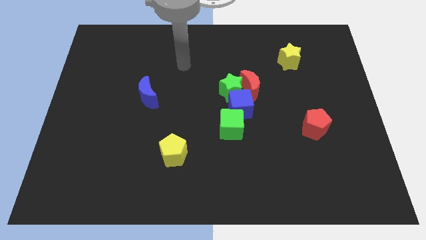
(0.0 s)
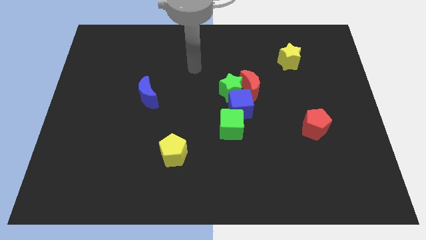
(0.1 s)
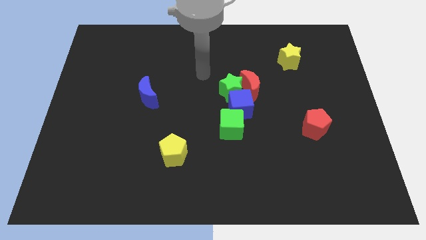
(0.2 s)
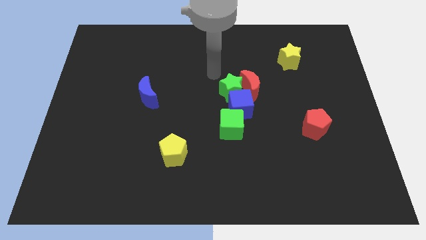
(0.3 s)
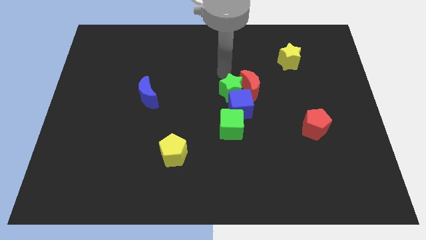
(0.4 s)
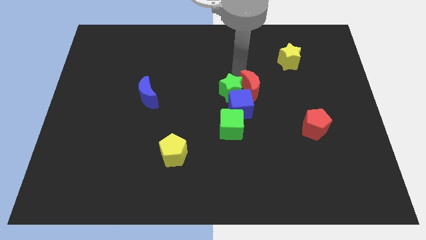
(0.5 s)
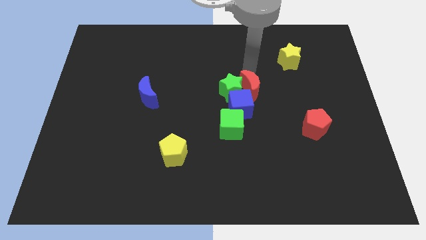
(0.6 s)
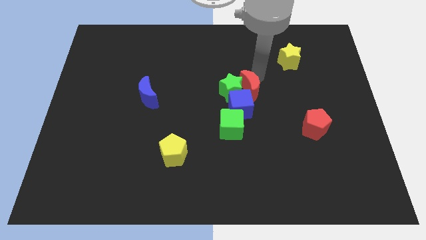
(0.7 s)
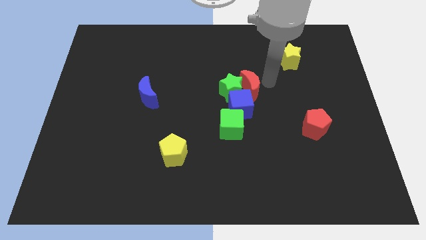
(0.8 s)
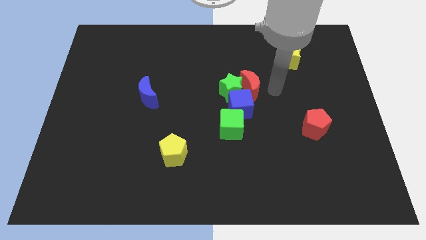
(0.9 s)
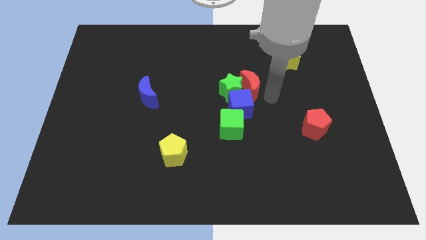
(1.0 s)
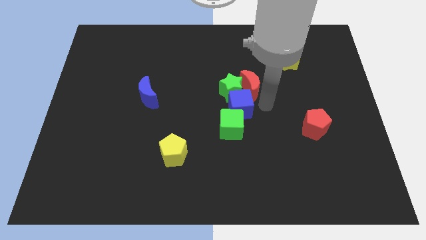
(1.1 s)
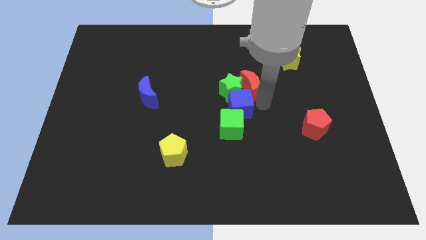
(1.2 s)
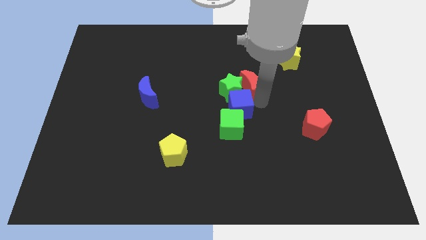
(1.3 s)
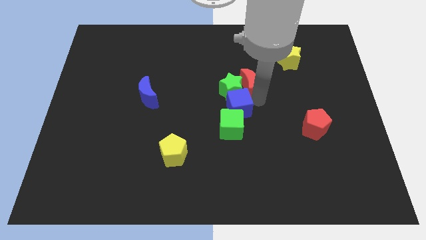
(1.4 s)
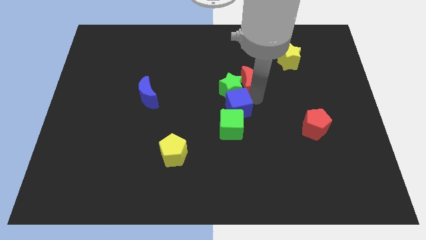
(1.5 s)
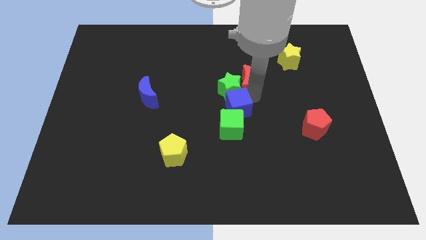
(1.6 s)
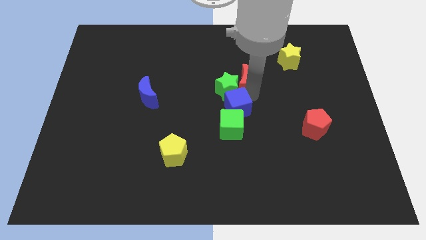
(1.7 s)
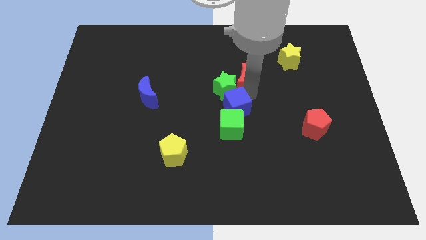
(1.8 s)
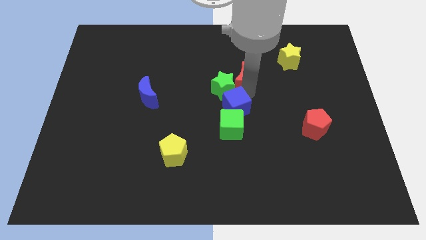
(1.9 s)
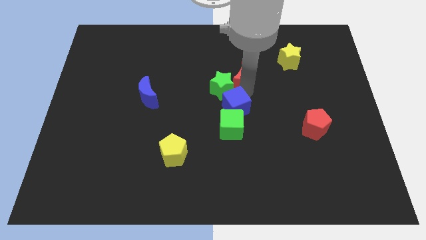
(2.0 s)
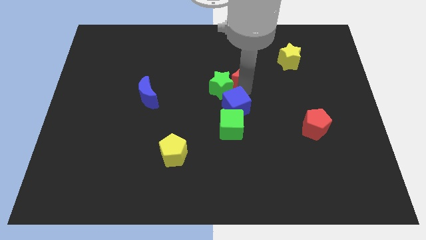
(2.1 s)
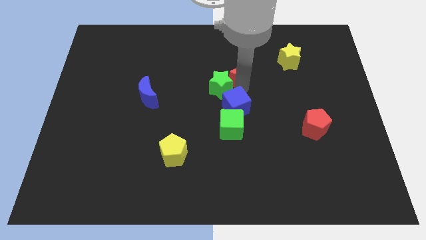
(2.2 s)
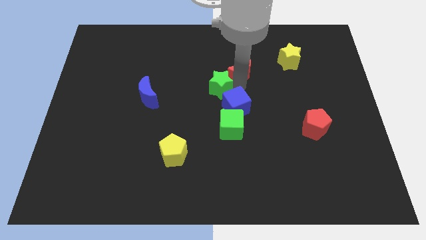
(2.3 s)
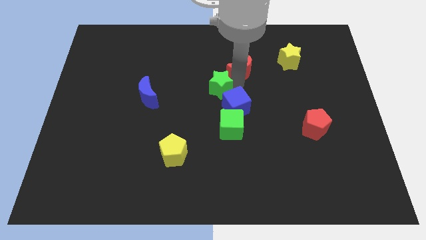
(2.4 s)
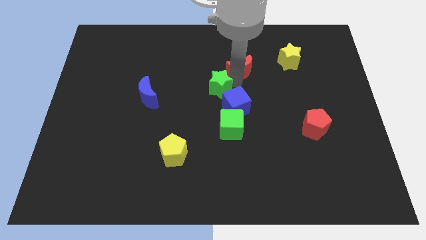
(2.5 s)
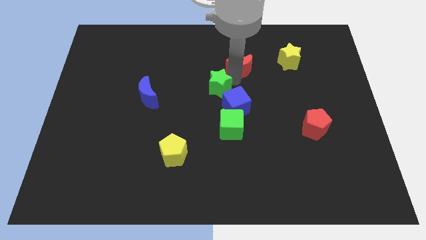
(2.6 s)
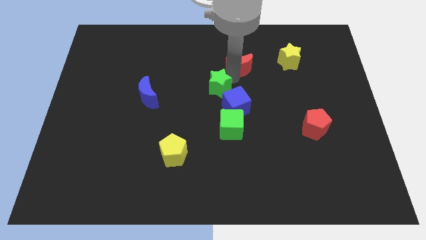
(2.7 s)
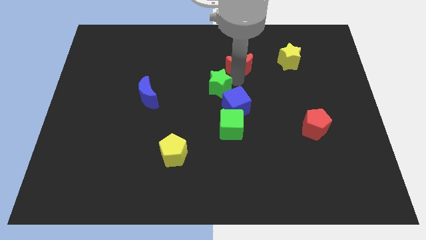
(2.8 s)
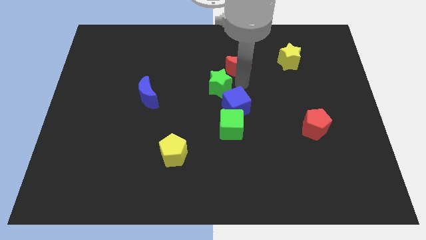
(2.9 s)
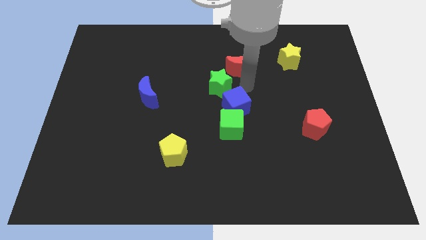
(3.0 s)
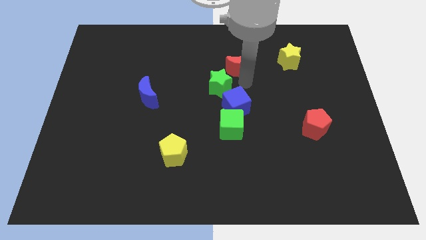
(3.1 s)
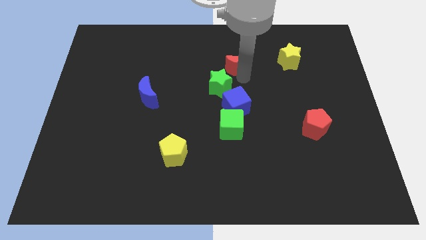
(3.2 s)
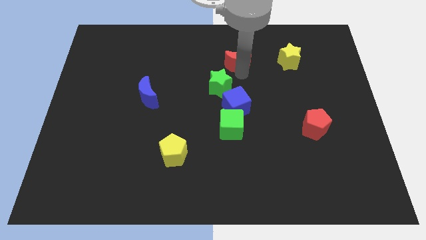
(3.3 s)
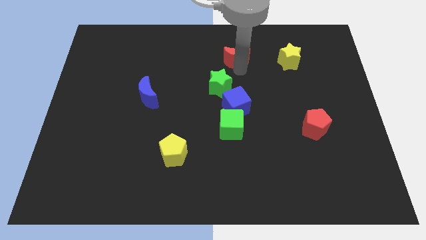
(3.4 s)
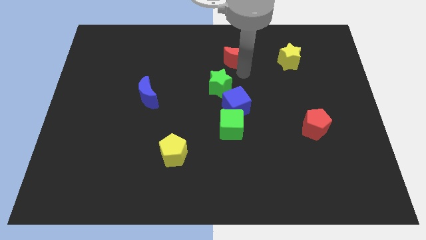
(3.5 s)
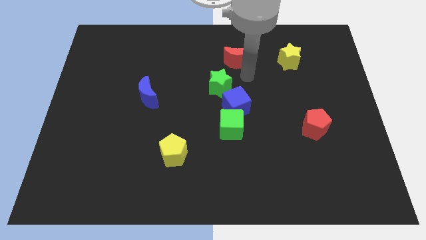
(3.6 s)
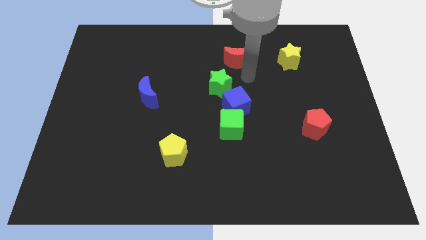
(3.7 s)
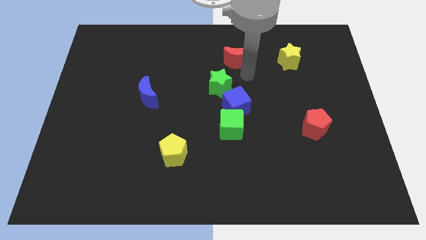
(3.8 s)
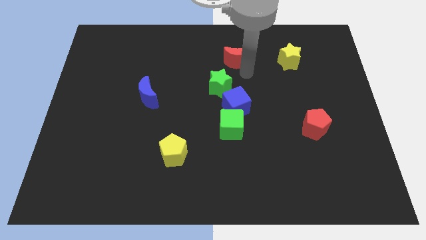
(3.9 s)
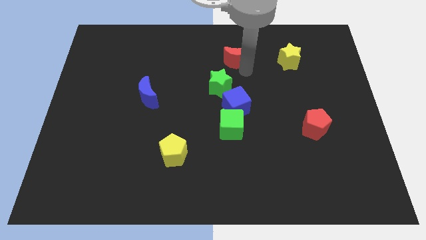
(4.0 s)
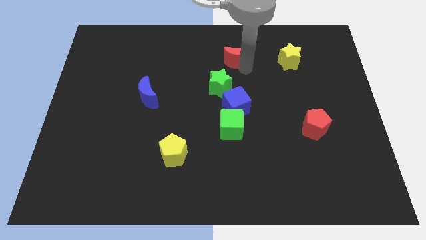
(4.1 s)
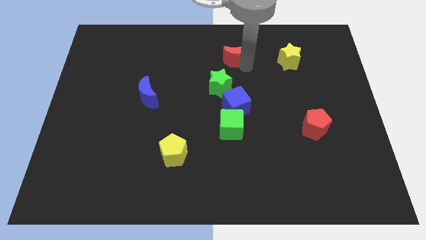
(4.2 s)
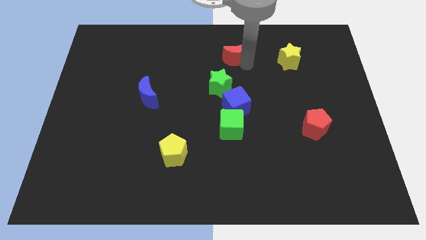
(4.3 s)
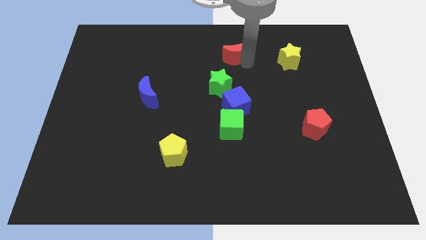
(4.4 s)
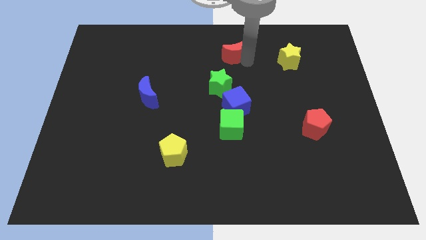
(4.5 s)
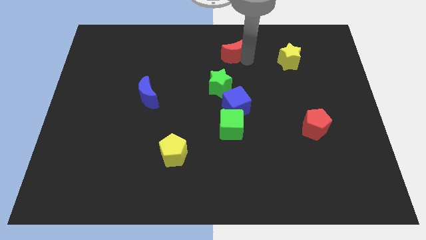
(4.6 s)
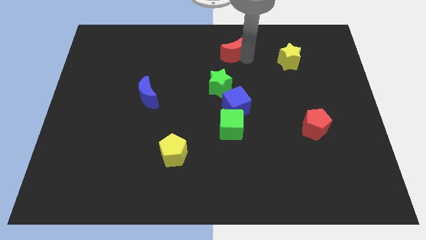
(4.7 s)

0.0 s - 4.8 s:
put the red moon to the top

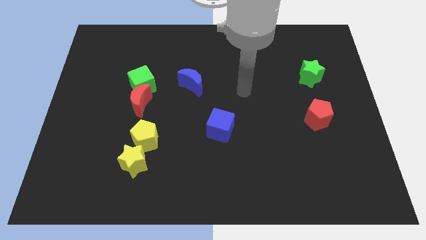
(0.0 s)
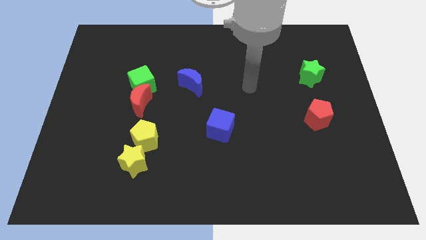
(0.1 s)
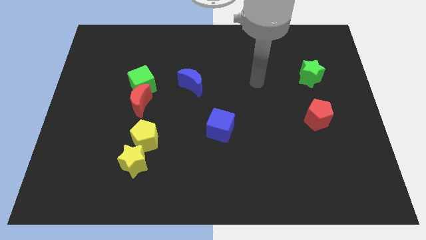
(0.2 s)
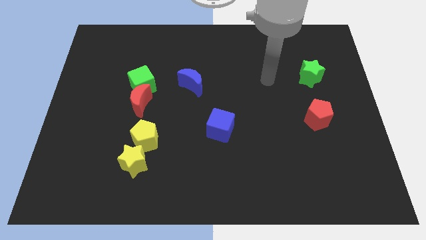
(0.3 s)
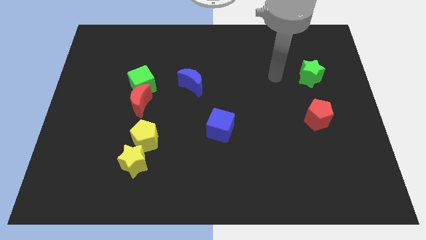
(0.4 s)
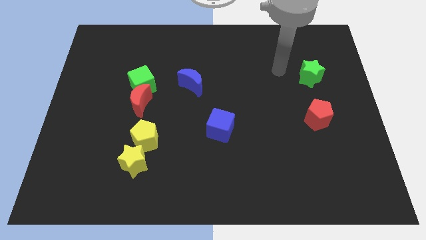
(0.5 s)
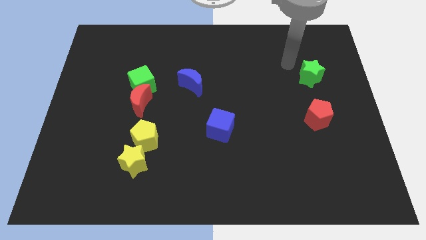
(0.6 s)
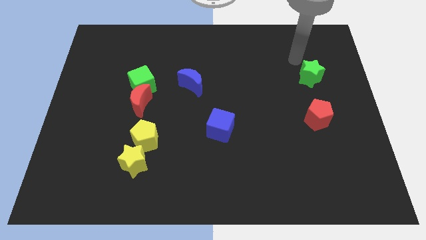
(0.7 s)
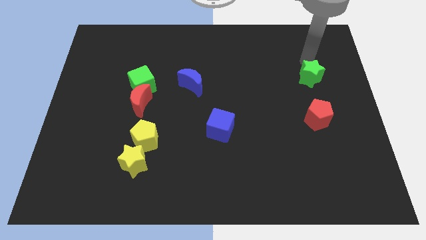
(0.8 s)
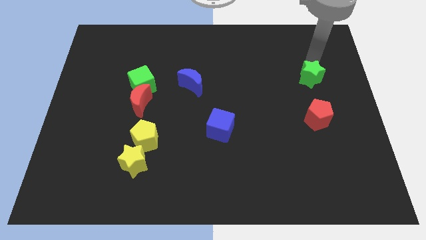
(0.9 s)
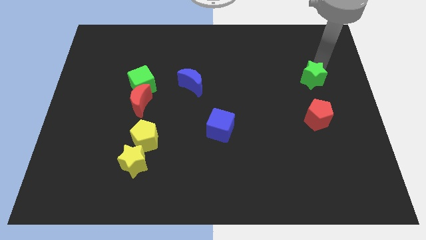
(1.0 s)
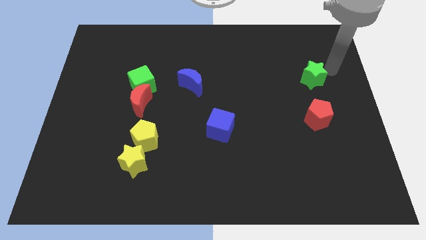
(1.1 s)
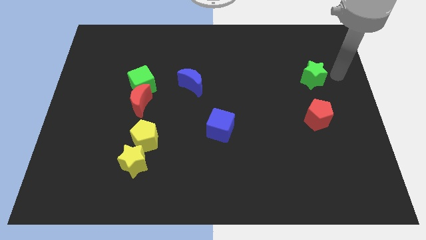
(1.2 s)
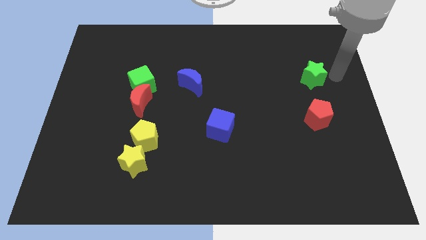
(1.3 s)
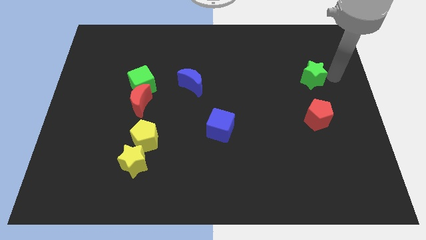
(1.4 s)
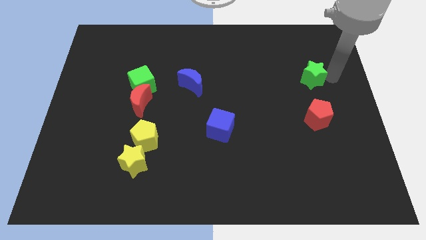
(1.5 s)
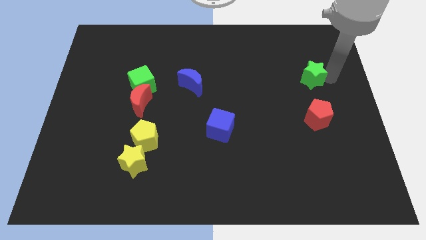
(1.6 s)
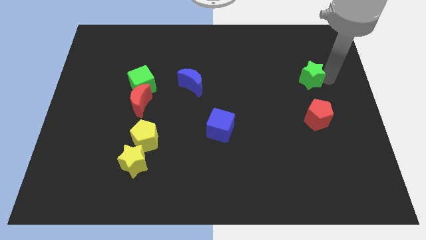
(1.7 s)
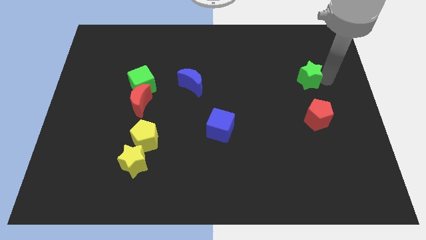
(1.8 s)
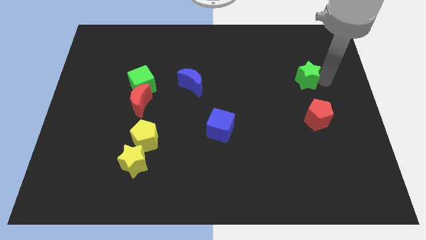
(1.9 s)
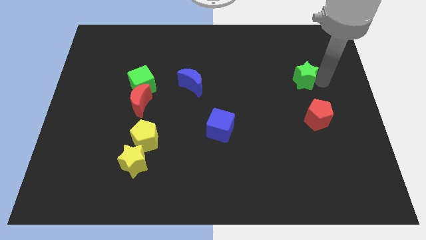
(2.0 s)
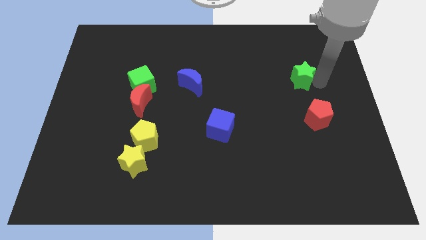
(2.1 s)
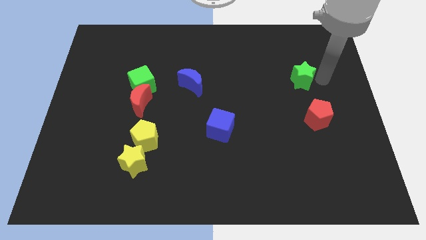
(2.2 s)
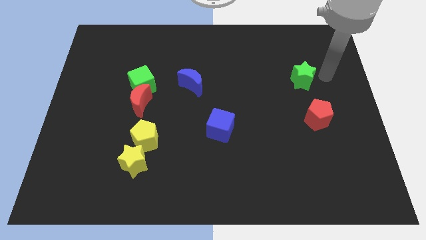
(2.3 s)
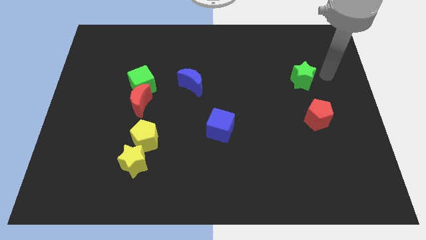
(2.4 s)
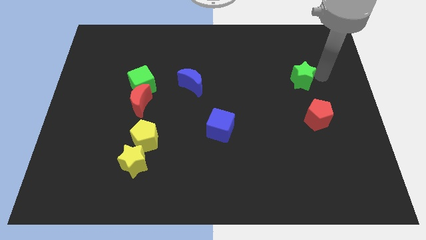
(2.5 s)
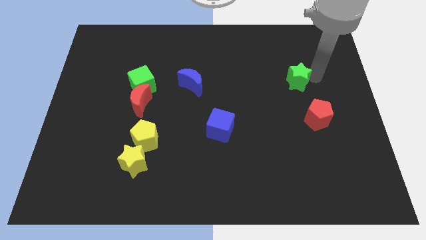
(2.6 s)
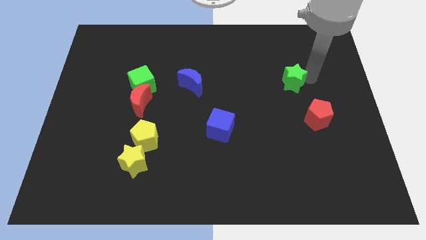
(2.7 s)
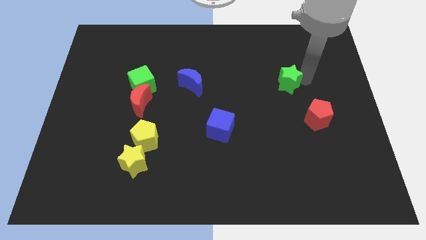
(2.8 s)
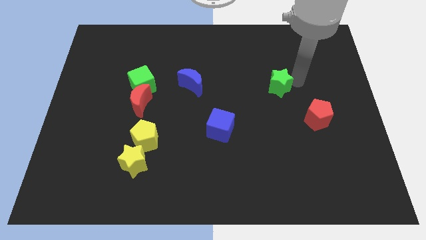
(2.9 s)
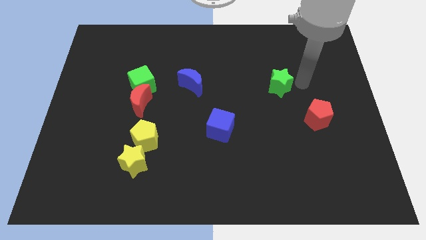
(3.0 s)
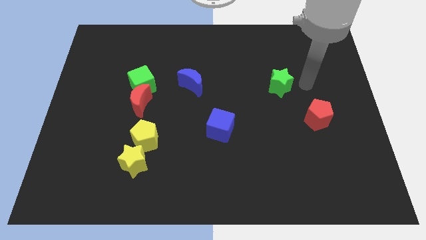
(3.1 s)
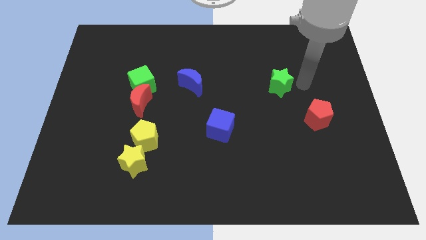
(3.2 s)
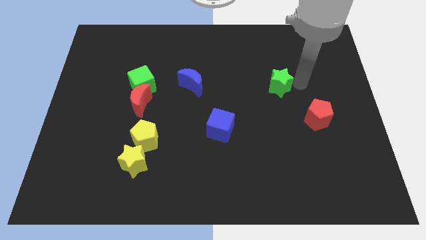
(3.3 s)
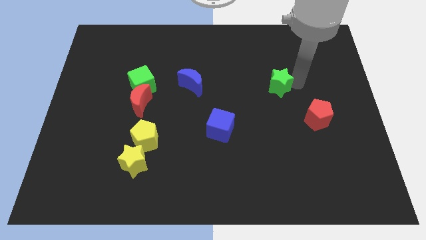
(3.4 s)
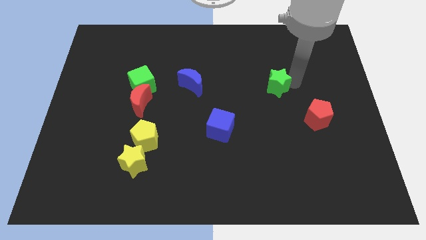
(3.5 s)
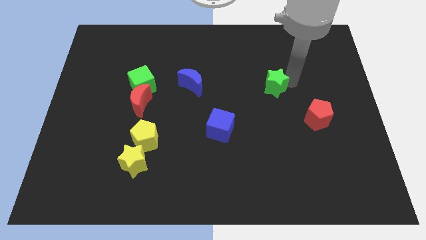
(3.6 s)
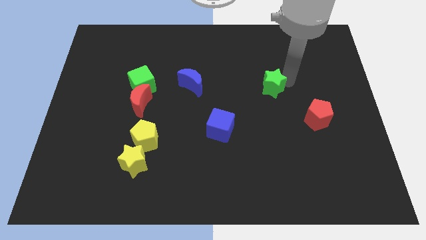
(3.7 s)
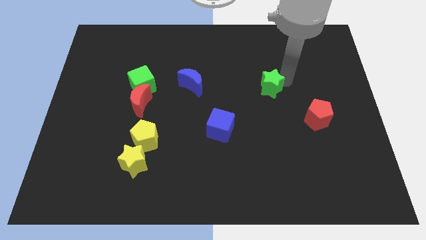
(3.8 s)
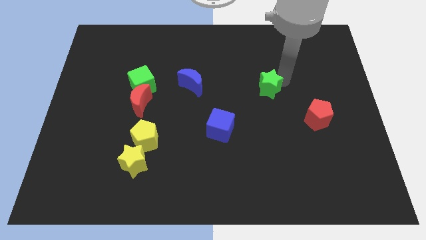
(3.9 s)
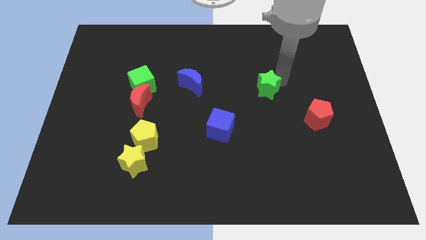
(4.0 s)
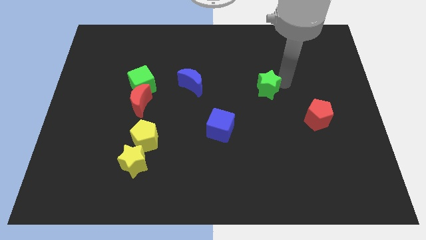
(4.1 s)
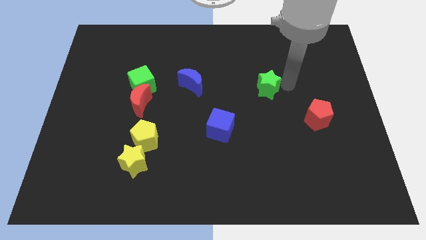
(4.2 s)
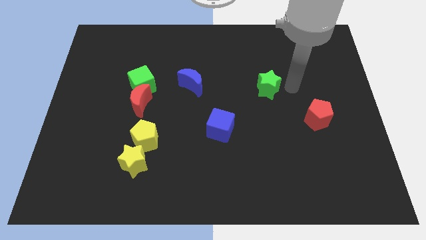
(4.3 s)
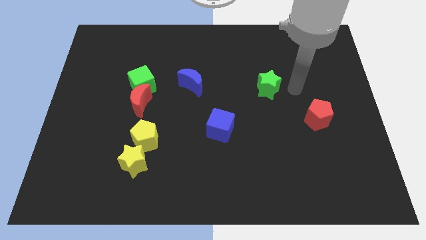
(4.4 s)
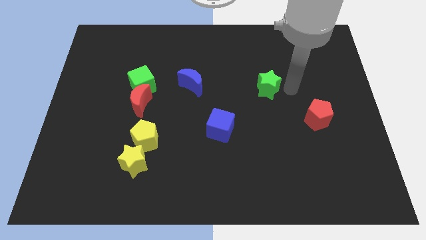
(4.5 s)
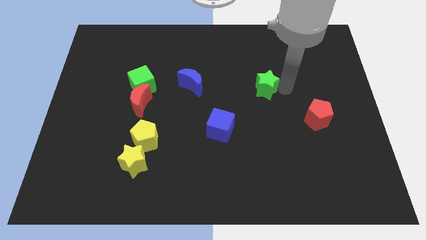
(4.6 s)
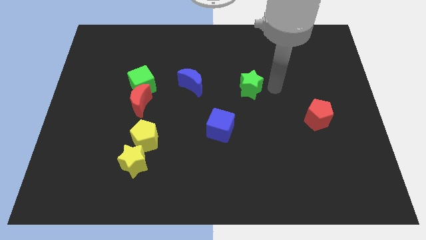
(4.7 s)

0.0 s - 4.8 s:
push the green star to the center
